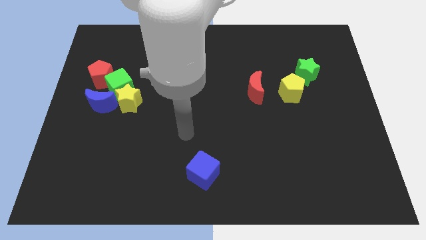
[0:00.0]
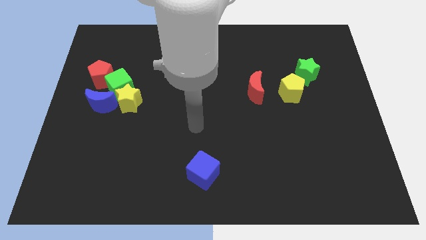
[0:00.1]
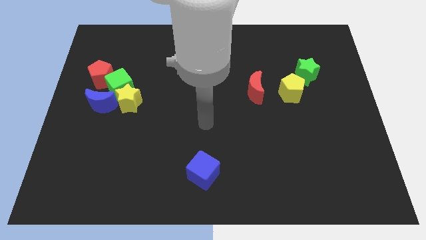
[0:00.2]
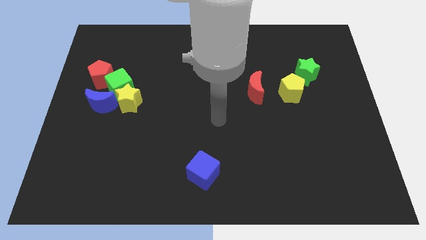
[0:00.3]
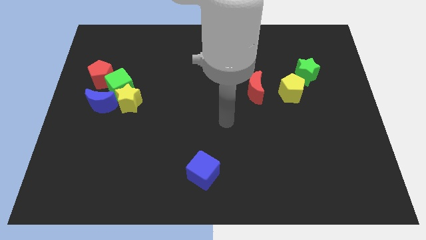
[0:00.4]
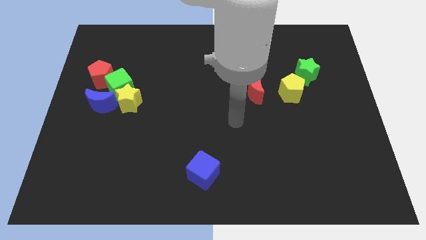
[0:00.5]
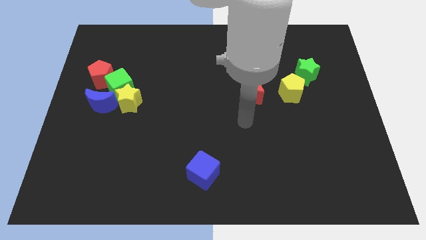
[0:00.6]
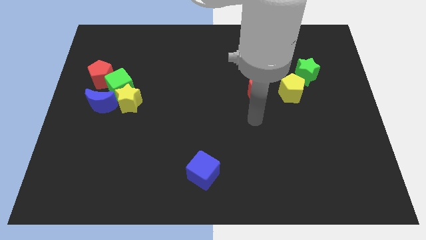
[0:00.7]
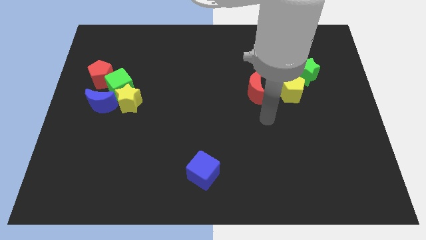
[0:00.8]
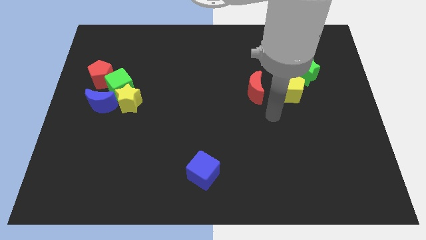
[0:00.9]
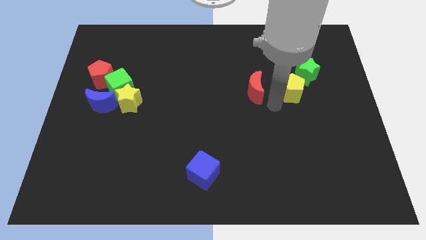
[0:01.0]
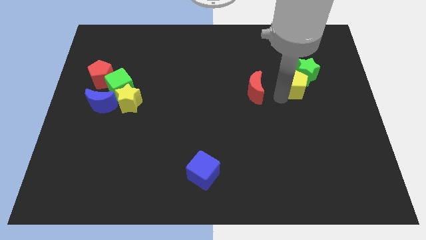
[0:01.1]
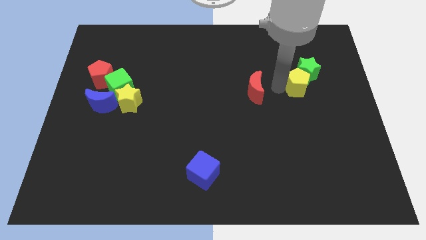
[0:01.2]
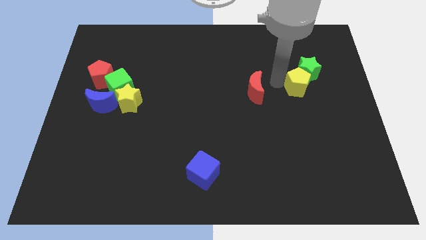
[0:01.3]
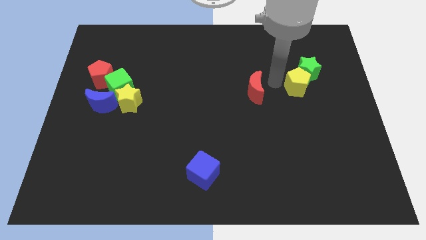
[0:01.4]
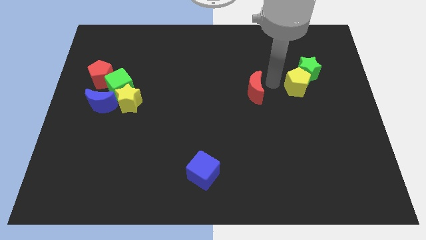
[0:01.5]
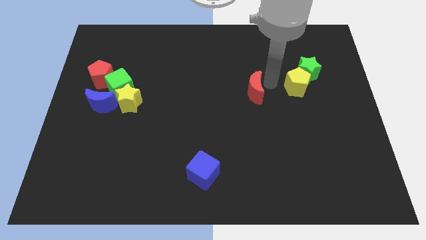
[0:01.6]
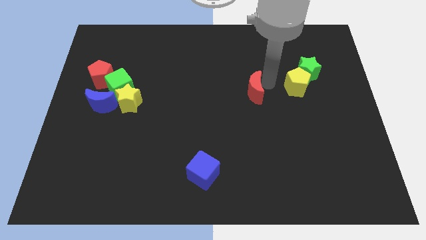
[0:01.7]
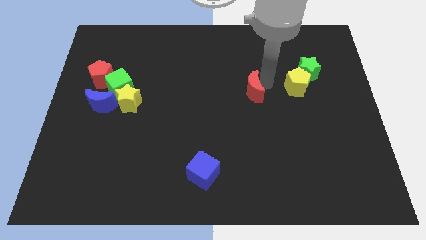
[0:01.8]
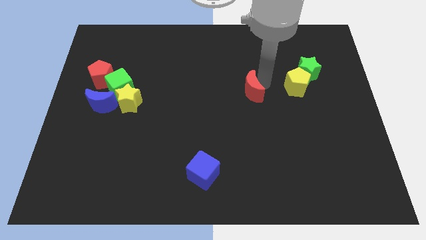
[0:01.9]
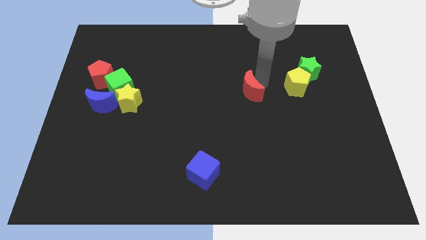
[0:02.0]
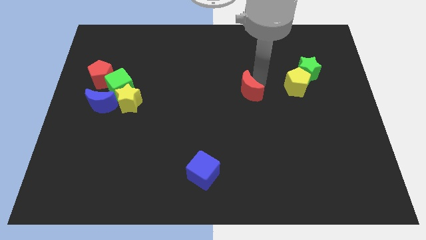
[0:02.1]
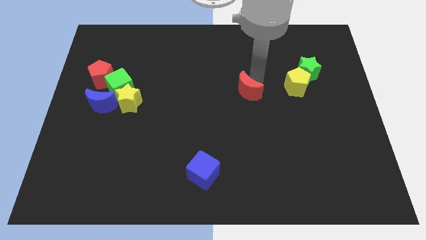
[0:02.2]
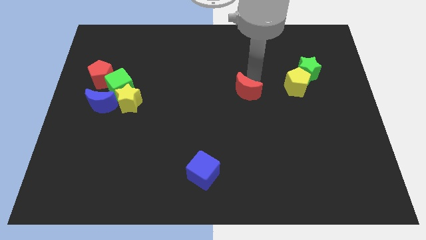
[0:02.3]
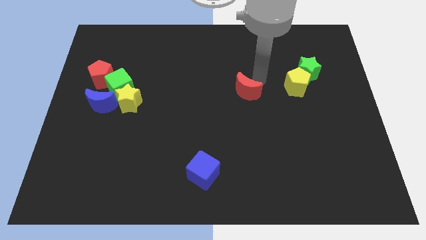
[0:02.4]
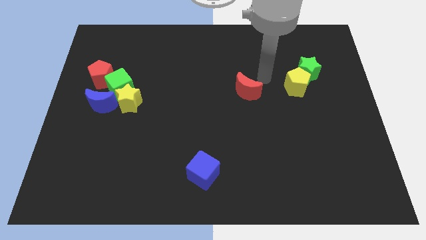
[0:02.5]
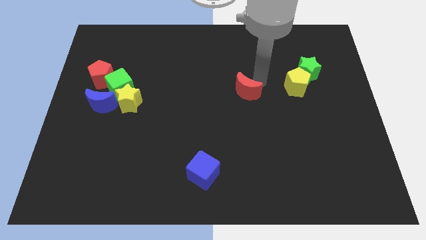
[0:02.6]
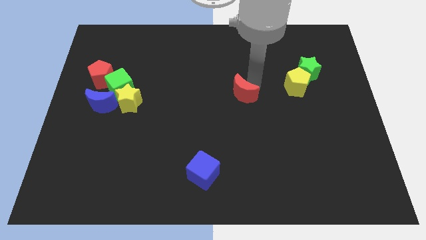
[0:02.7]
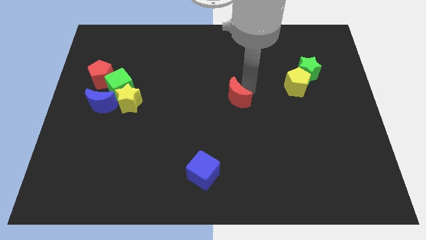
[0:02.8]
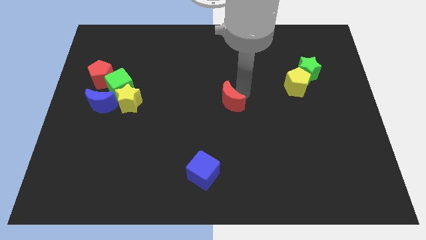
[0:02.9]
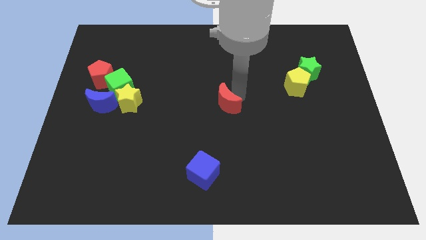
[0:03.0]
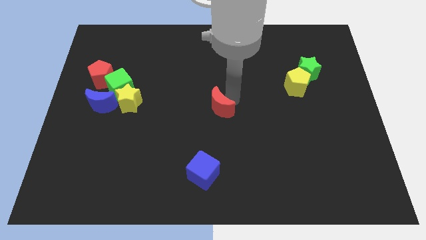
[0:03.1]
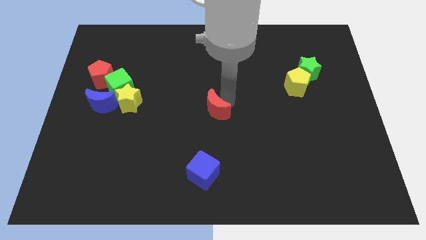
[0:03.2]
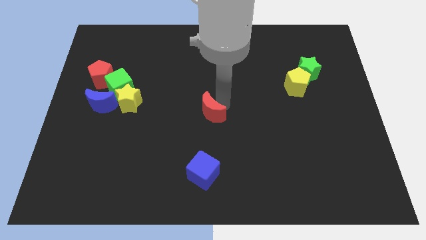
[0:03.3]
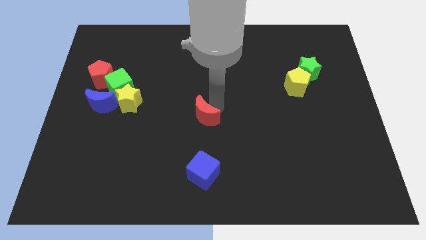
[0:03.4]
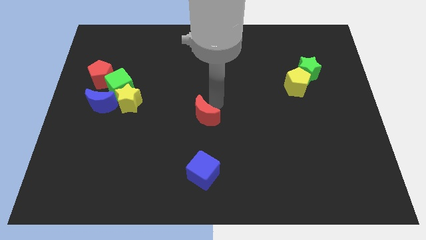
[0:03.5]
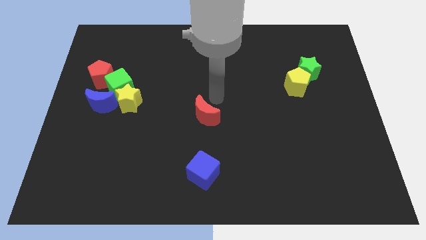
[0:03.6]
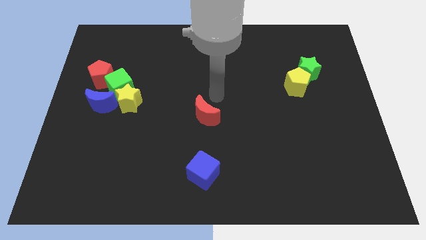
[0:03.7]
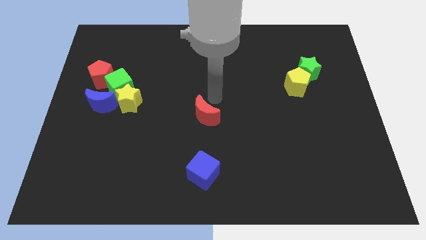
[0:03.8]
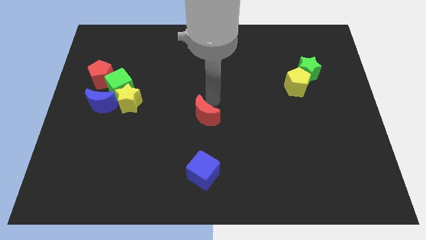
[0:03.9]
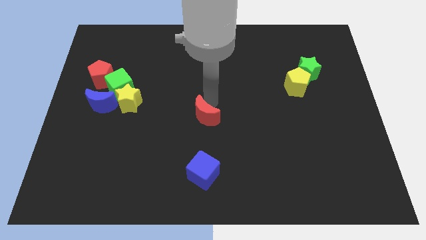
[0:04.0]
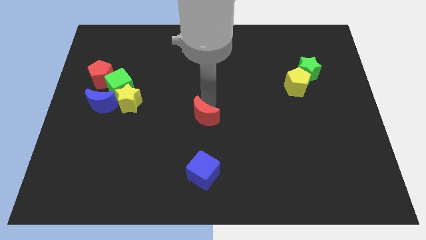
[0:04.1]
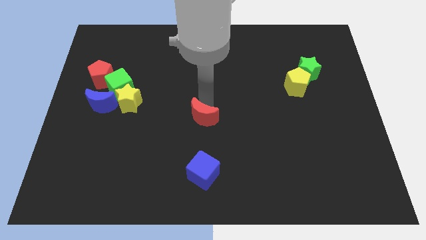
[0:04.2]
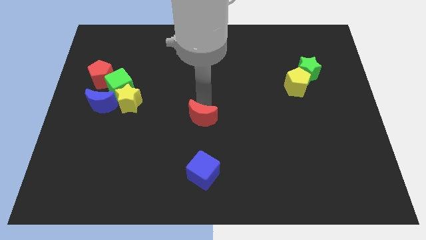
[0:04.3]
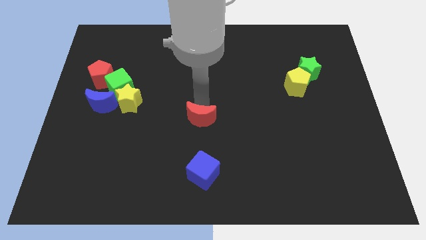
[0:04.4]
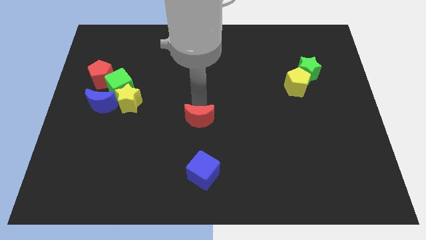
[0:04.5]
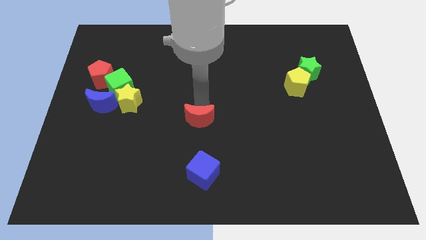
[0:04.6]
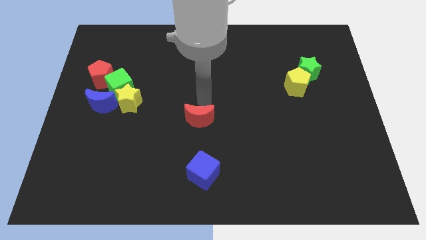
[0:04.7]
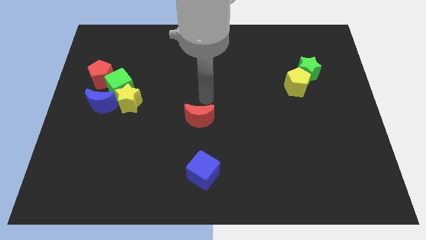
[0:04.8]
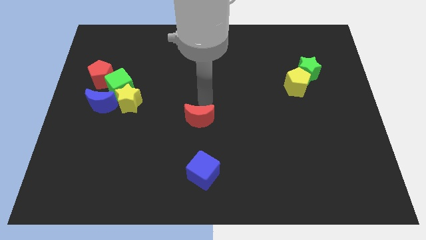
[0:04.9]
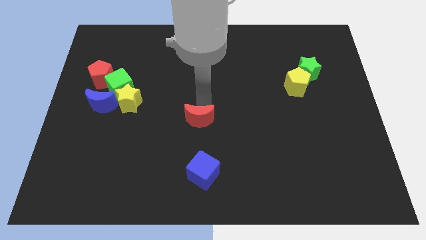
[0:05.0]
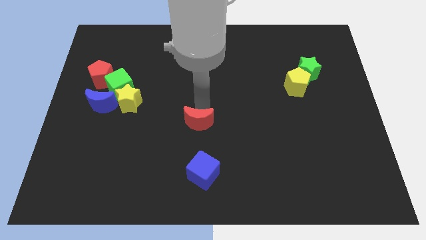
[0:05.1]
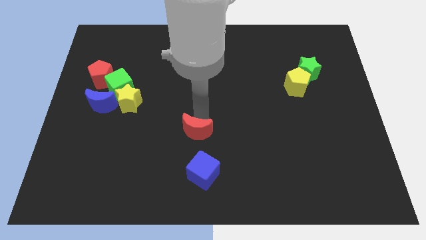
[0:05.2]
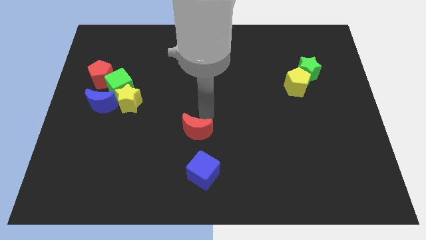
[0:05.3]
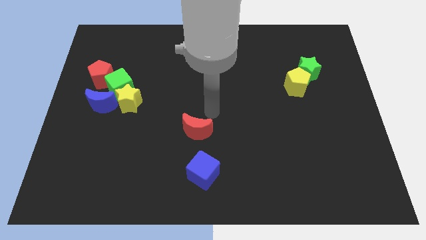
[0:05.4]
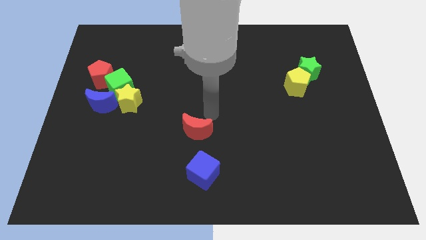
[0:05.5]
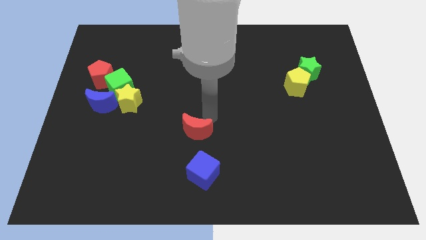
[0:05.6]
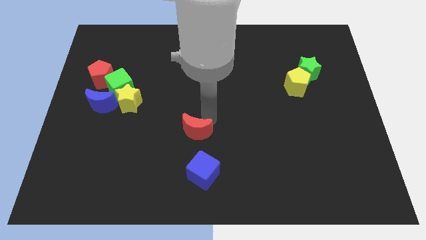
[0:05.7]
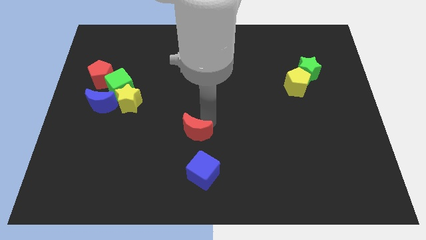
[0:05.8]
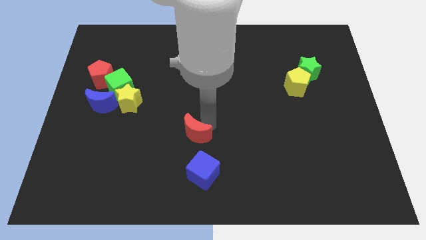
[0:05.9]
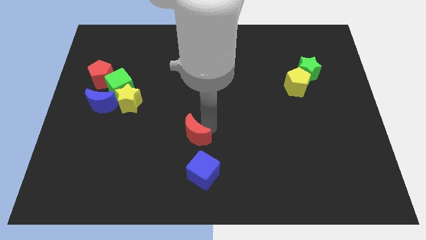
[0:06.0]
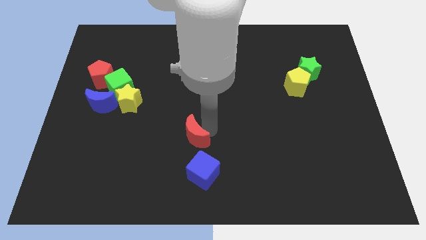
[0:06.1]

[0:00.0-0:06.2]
push the red moon diagonally up and to the left of the blue cube

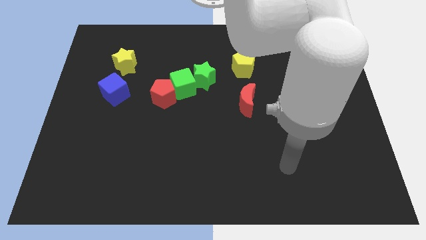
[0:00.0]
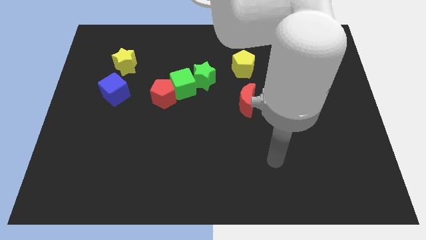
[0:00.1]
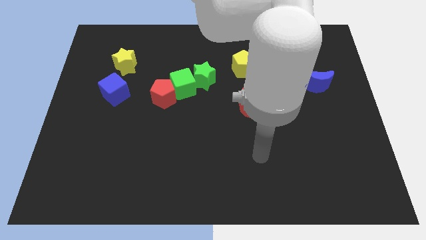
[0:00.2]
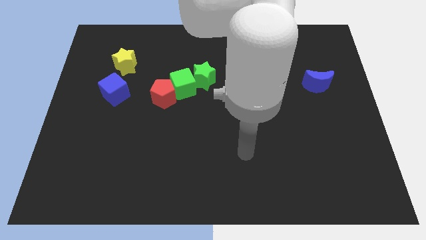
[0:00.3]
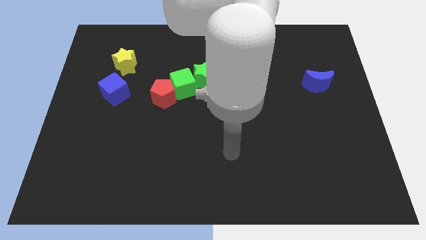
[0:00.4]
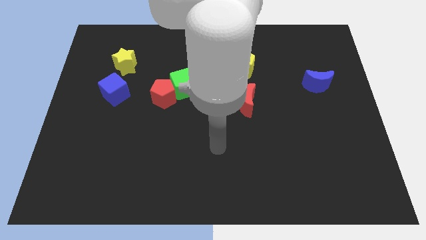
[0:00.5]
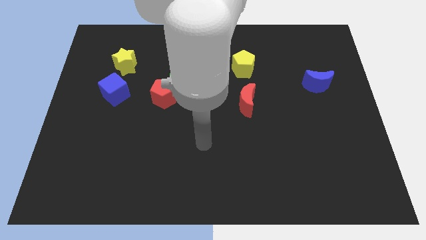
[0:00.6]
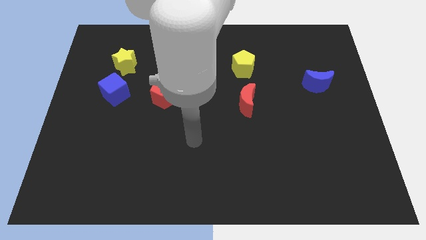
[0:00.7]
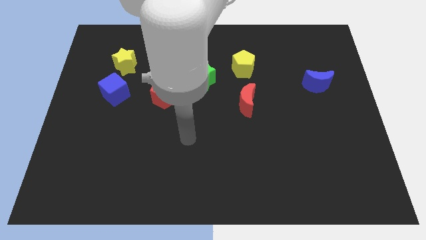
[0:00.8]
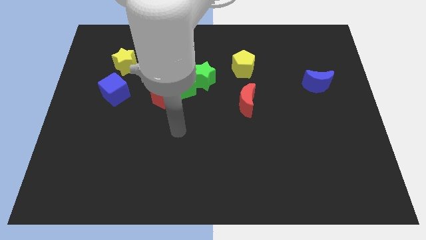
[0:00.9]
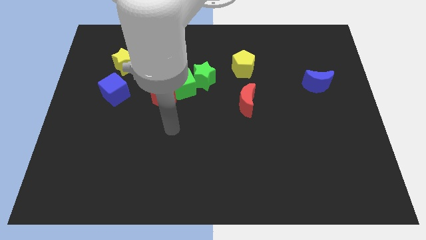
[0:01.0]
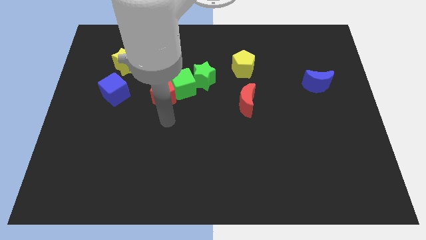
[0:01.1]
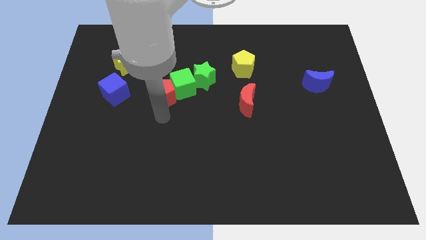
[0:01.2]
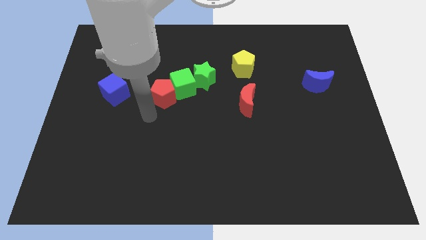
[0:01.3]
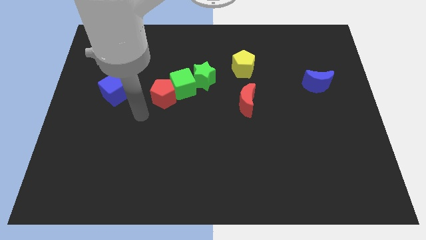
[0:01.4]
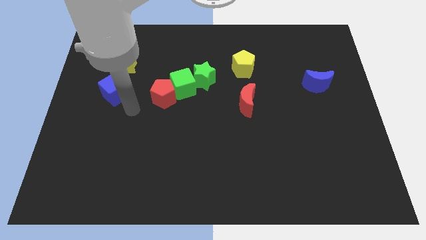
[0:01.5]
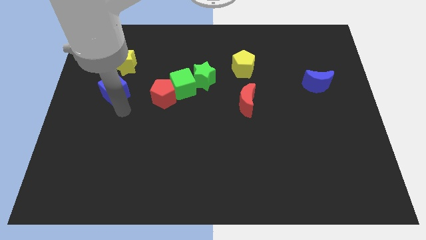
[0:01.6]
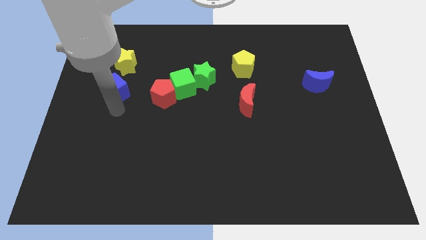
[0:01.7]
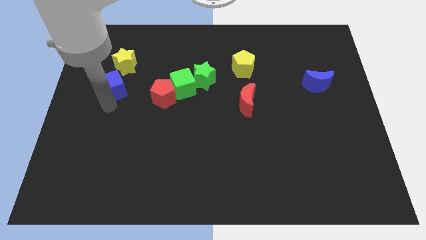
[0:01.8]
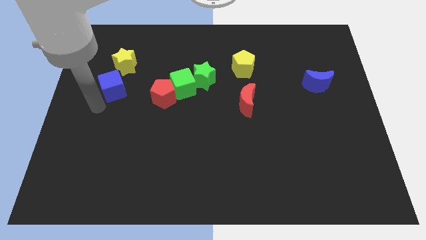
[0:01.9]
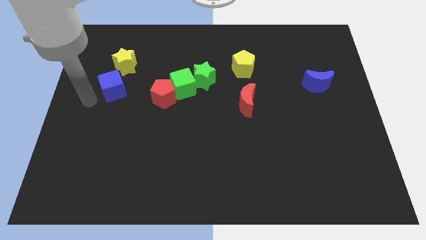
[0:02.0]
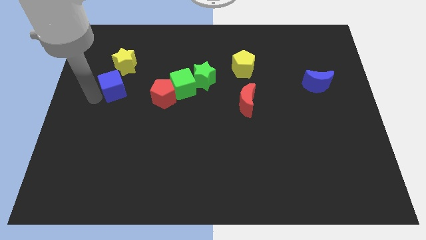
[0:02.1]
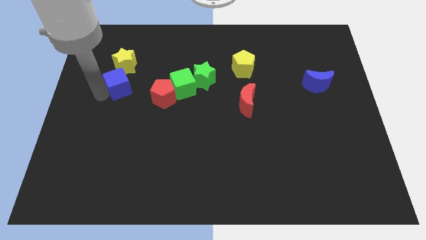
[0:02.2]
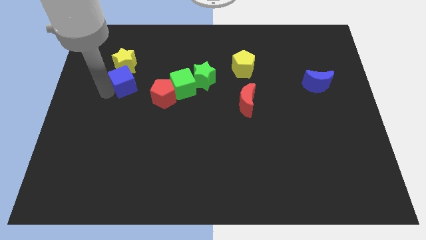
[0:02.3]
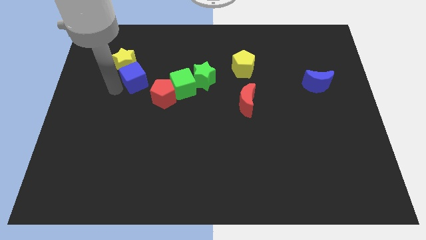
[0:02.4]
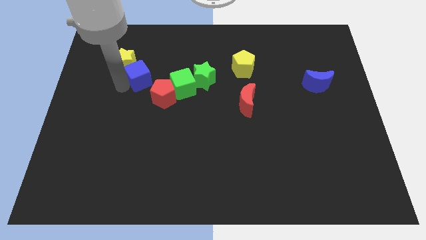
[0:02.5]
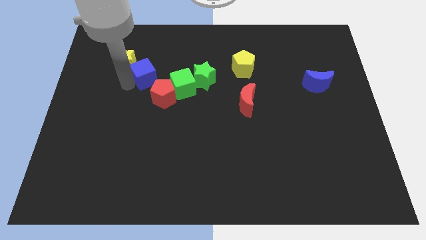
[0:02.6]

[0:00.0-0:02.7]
put the blue cube right of the yellow star
